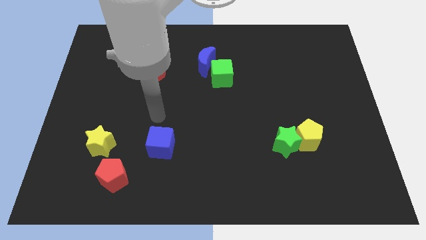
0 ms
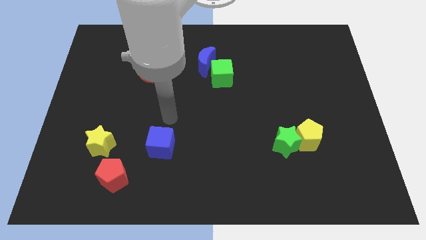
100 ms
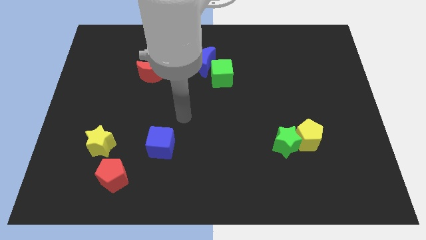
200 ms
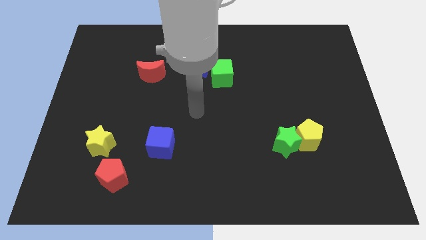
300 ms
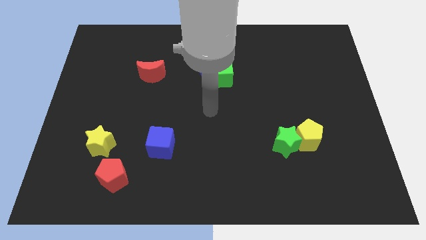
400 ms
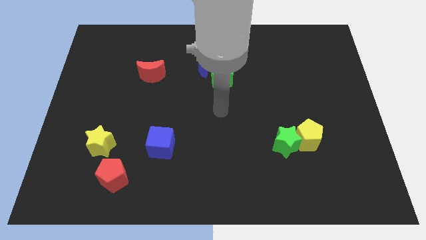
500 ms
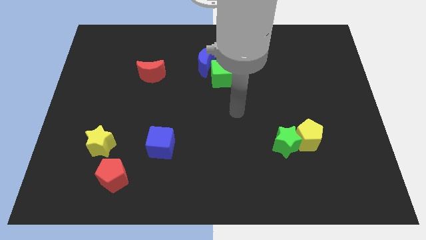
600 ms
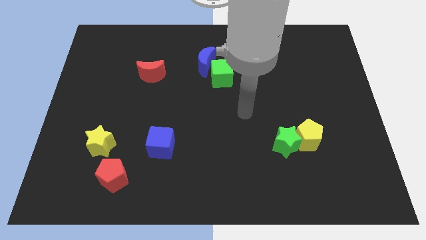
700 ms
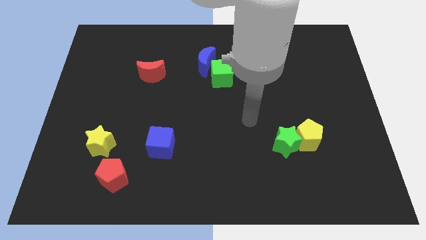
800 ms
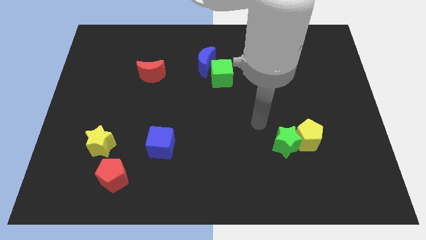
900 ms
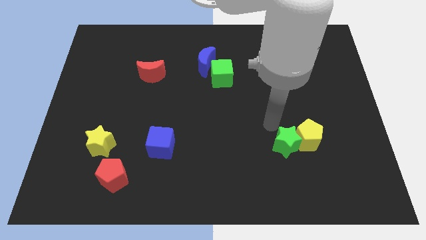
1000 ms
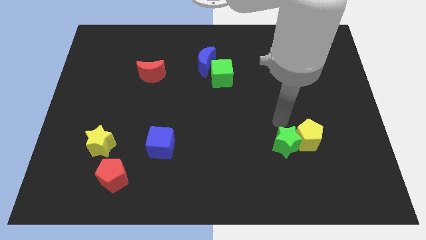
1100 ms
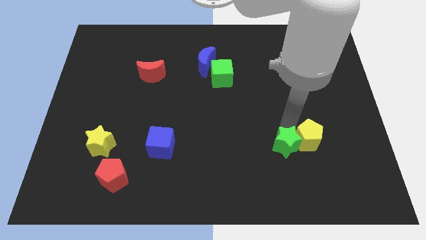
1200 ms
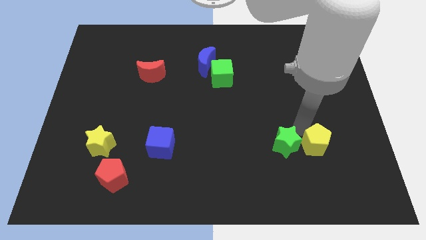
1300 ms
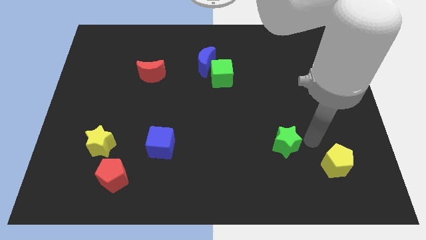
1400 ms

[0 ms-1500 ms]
separate the green star from the yellow pentagon

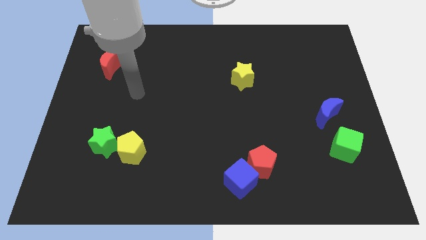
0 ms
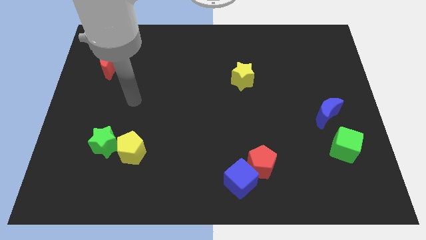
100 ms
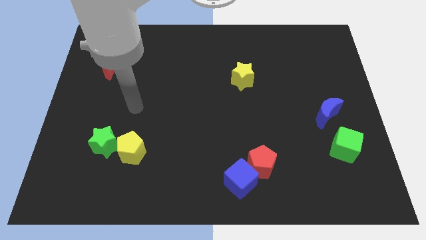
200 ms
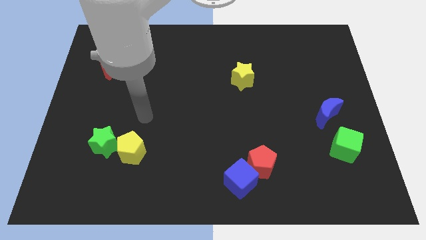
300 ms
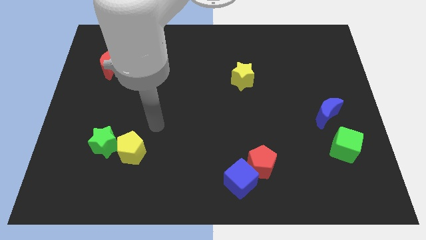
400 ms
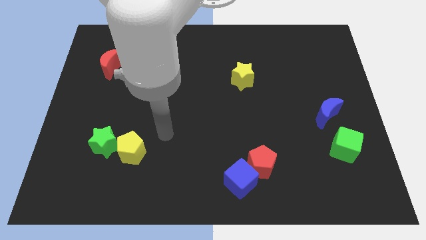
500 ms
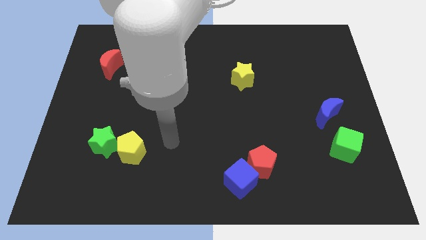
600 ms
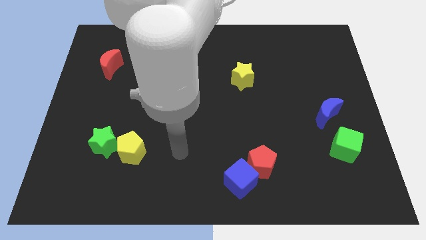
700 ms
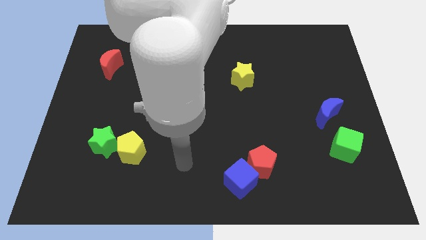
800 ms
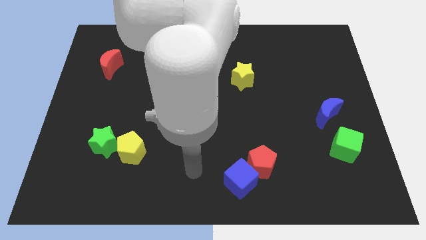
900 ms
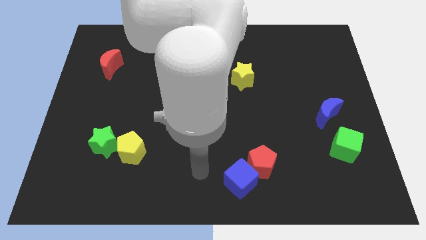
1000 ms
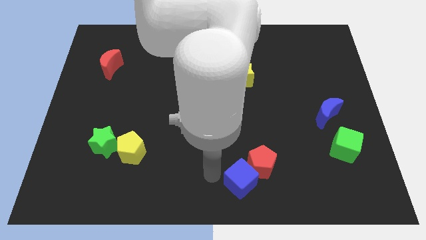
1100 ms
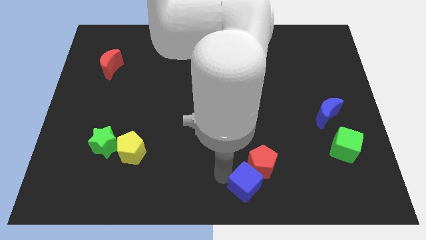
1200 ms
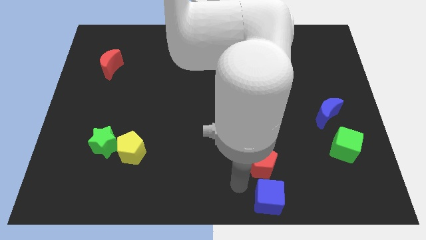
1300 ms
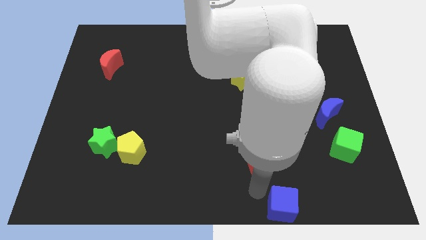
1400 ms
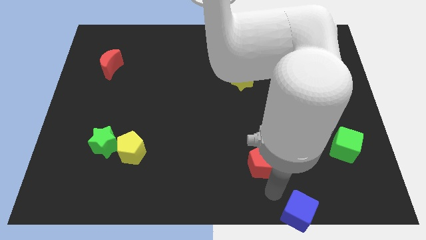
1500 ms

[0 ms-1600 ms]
pull the red pentagon apart from the blue cube

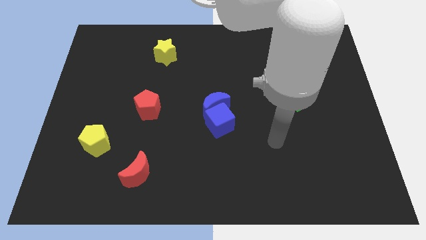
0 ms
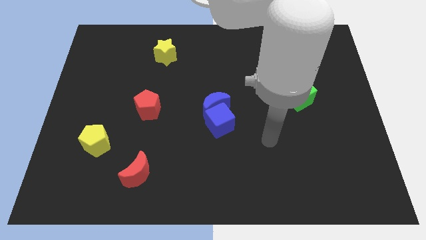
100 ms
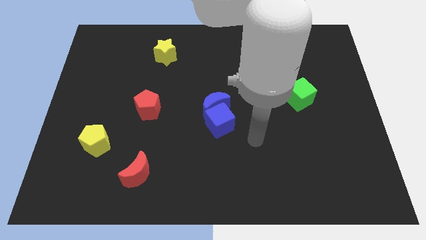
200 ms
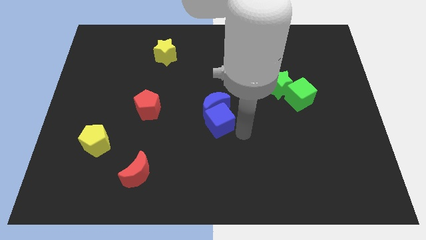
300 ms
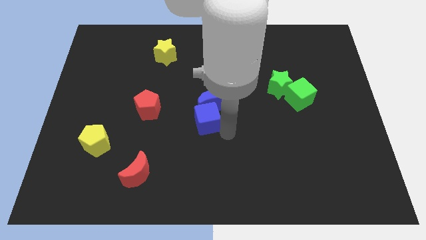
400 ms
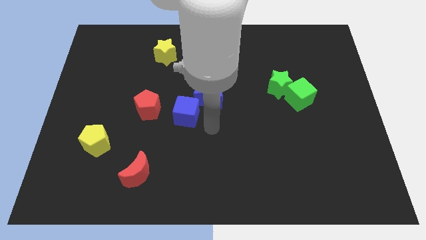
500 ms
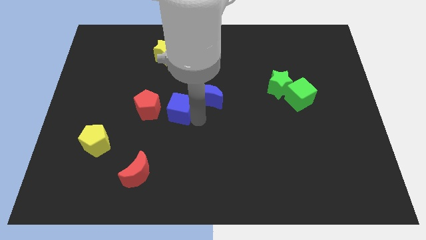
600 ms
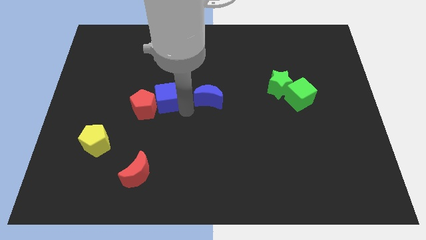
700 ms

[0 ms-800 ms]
separate the blue moon from the blue cube

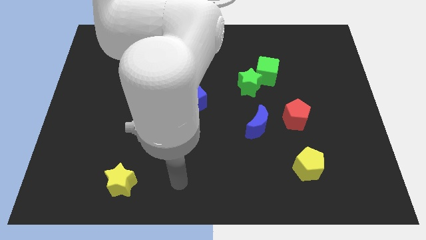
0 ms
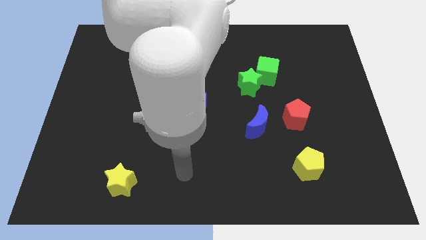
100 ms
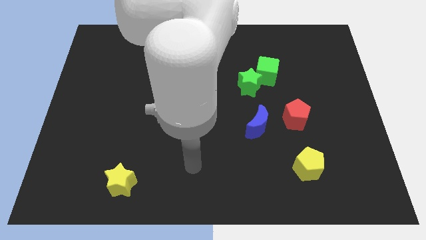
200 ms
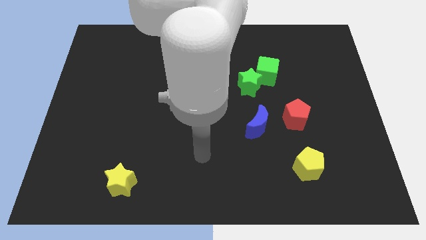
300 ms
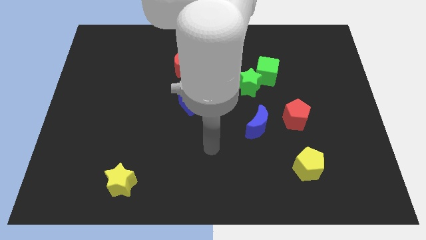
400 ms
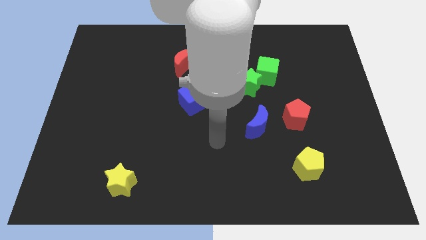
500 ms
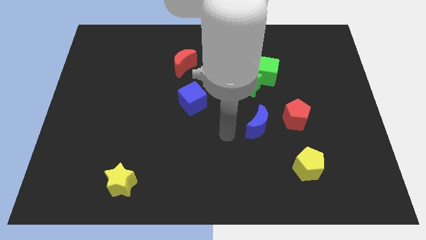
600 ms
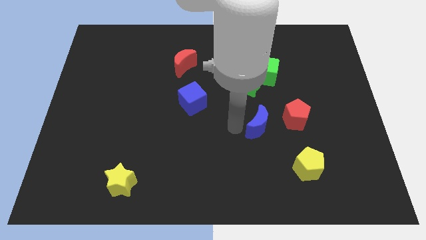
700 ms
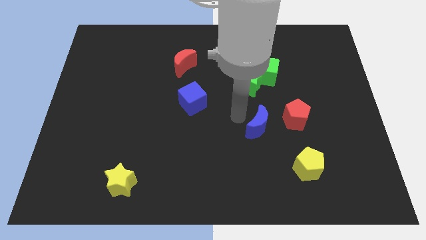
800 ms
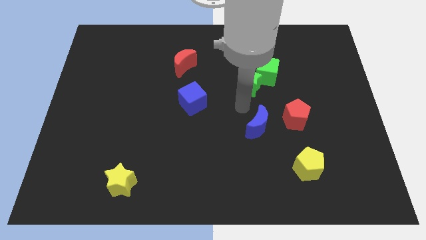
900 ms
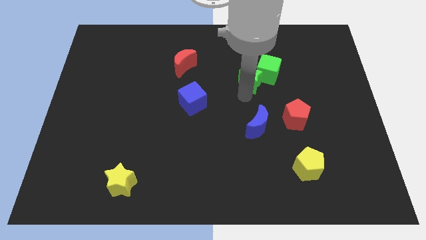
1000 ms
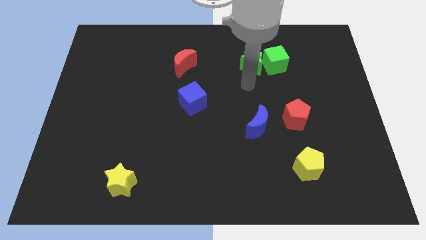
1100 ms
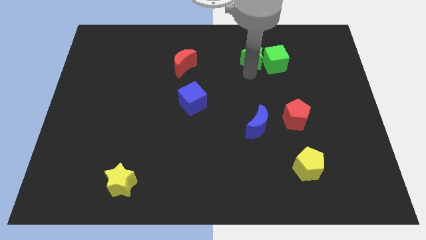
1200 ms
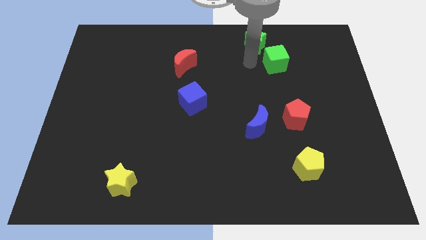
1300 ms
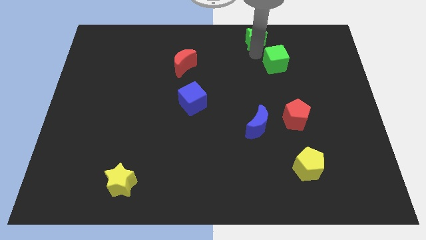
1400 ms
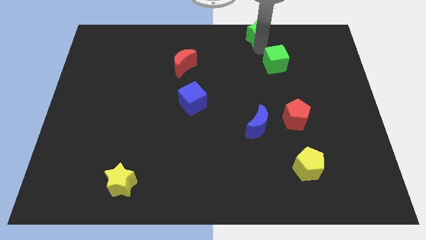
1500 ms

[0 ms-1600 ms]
move the green cube away from the green star

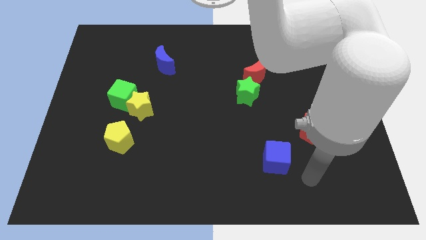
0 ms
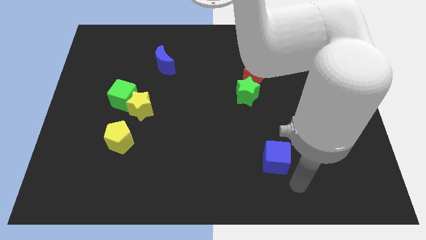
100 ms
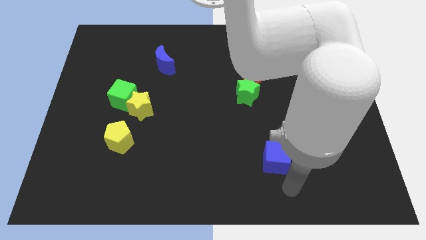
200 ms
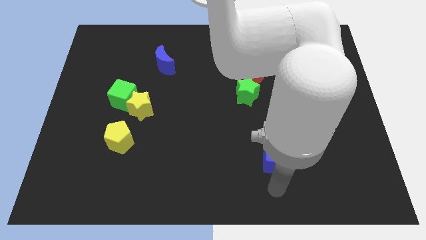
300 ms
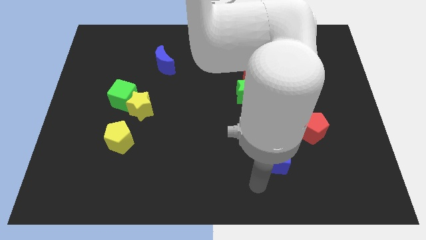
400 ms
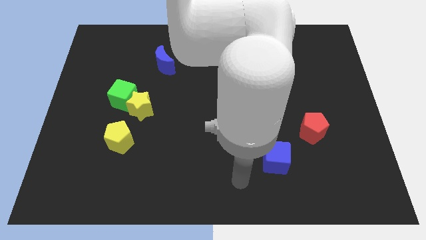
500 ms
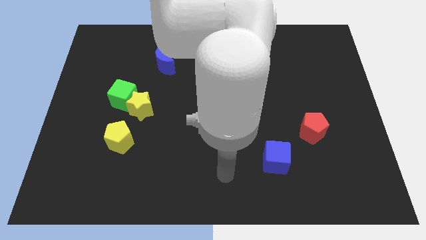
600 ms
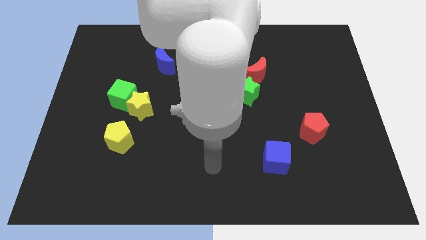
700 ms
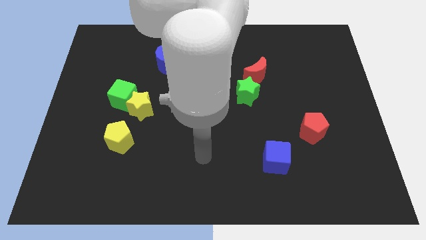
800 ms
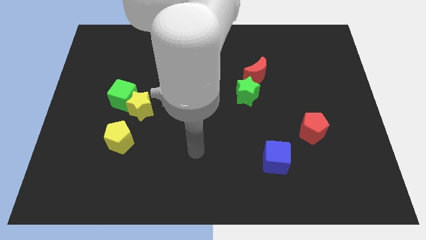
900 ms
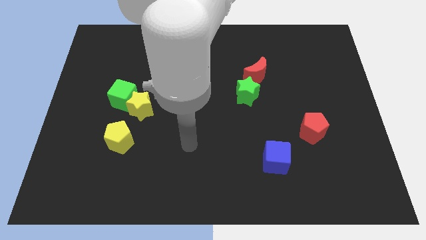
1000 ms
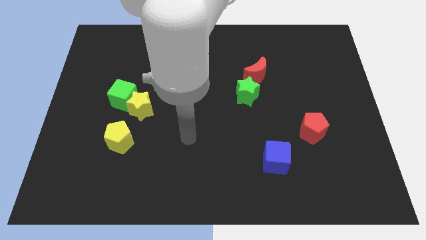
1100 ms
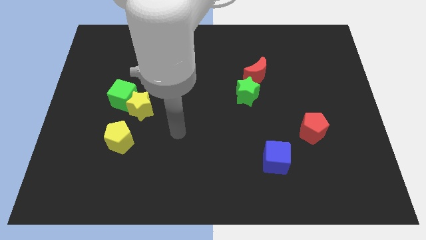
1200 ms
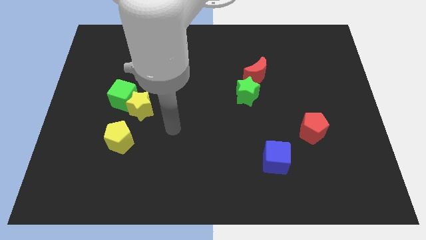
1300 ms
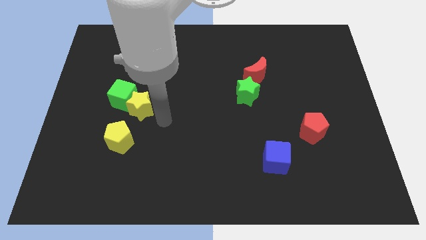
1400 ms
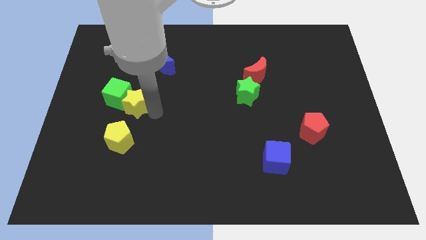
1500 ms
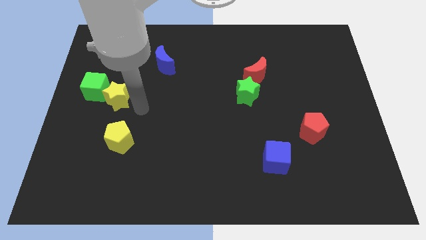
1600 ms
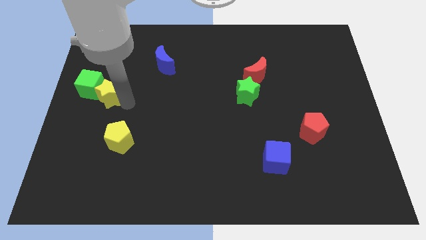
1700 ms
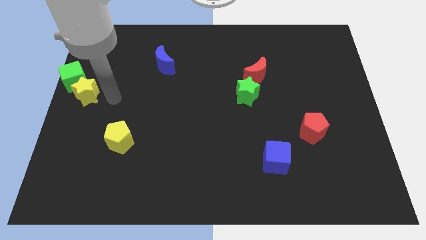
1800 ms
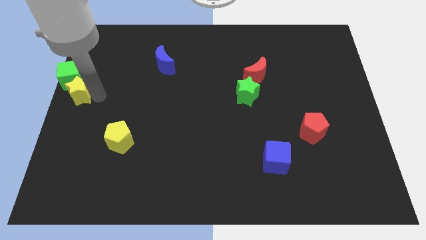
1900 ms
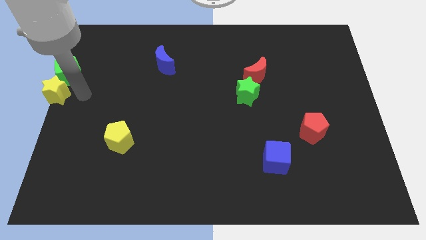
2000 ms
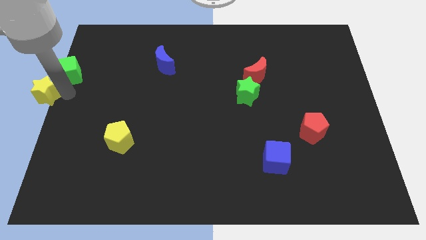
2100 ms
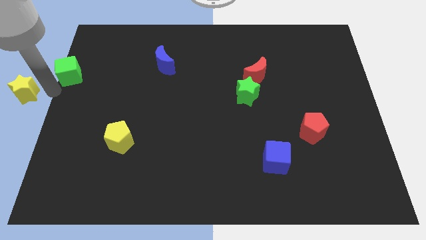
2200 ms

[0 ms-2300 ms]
separate the green cube from the yellow star

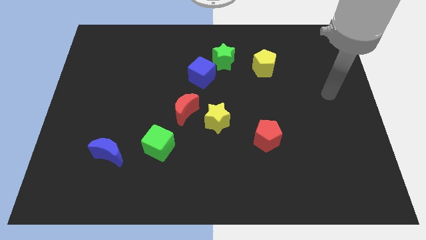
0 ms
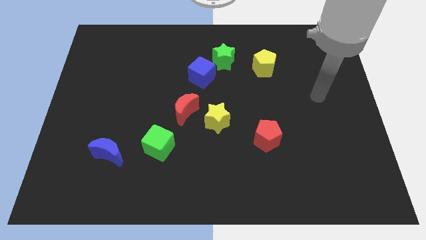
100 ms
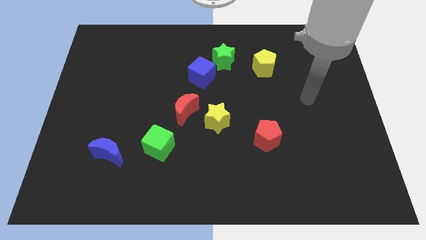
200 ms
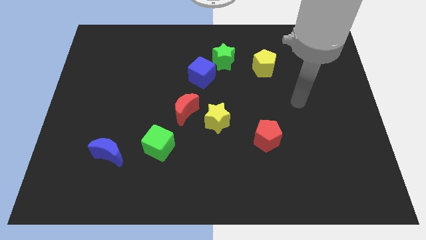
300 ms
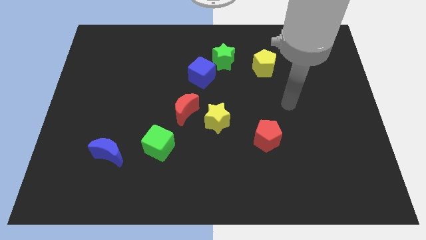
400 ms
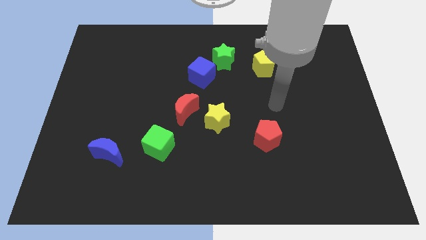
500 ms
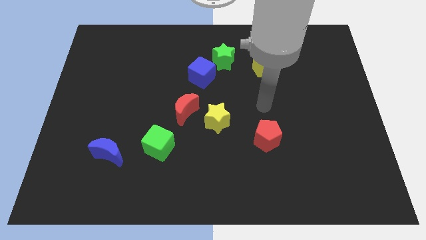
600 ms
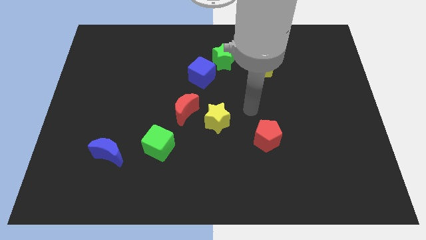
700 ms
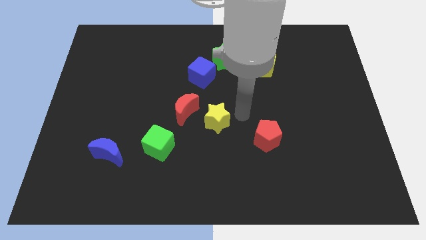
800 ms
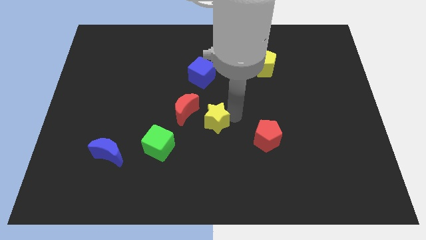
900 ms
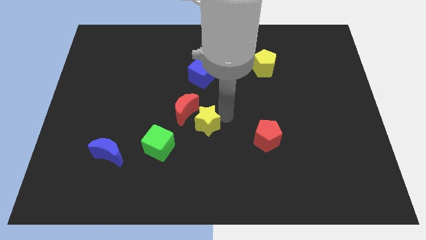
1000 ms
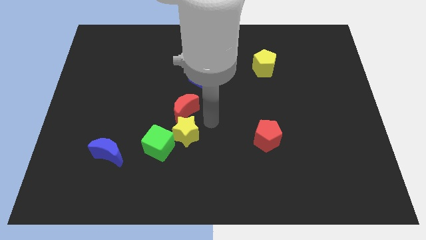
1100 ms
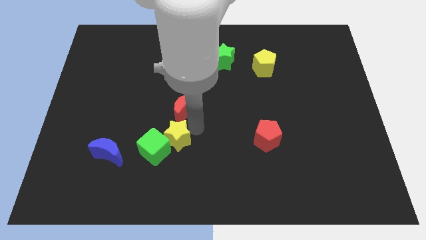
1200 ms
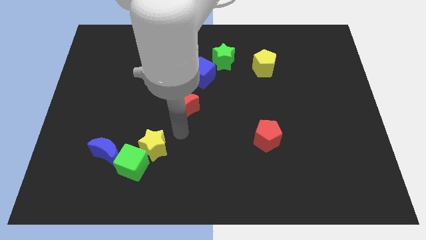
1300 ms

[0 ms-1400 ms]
separate the red moon from the yellow star
